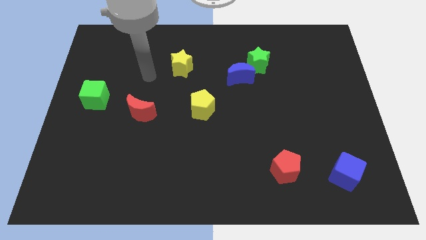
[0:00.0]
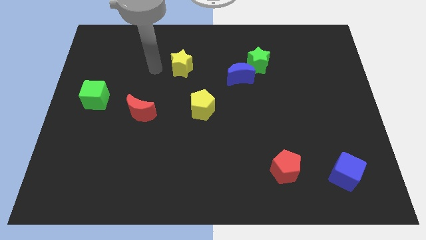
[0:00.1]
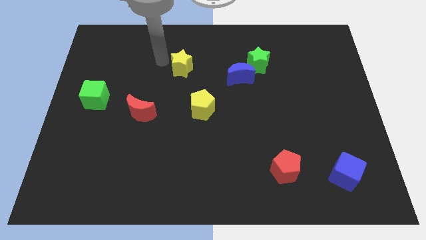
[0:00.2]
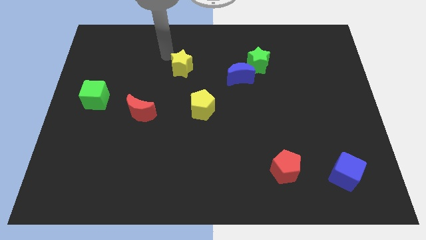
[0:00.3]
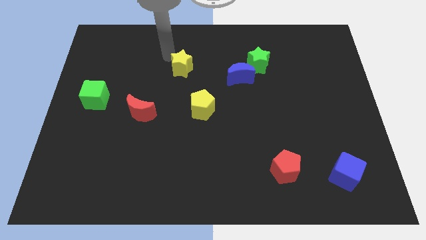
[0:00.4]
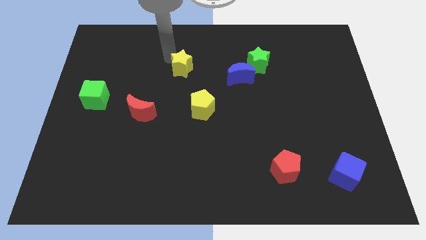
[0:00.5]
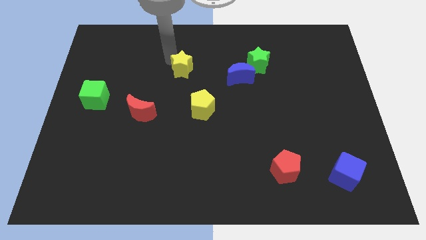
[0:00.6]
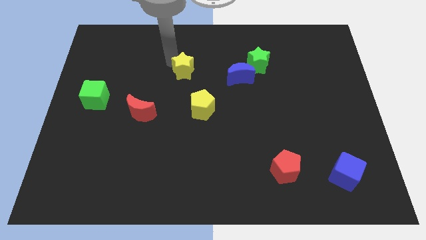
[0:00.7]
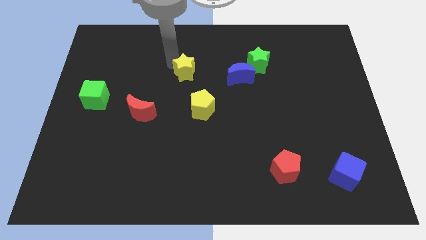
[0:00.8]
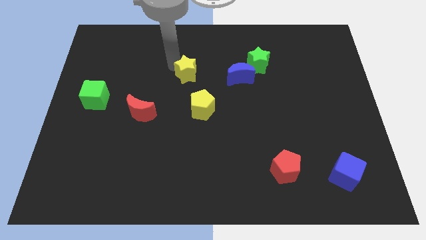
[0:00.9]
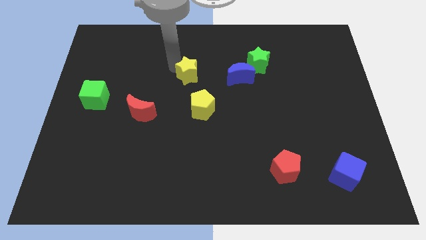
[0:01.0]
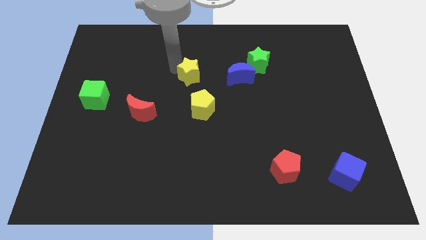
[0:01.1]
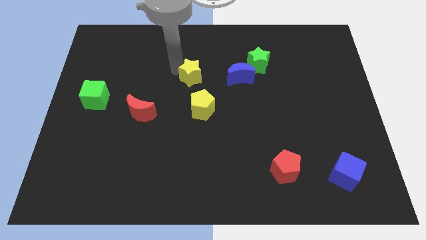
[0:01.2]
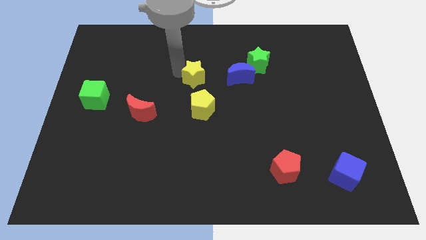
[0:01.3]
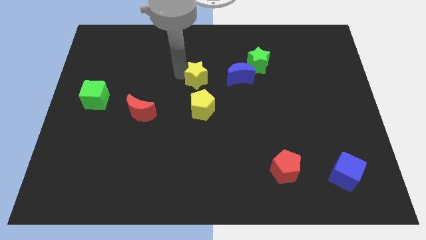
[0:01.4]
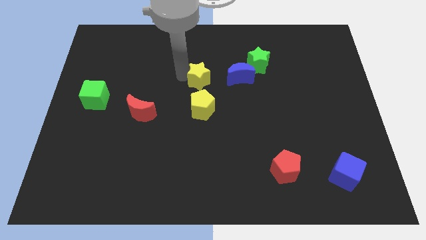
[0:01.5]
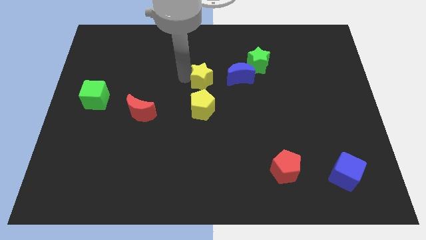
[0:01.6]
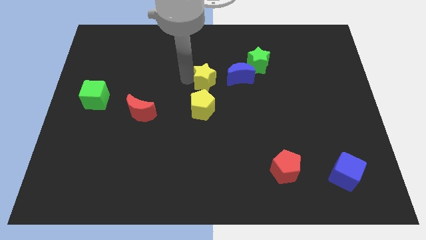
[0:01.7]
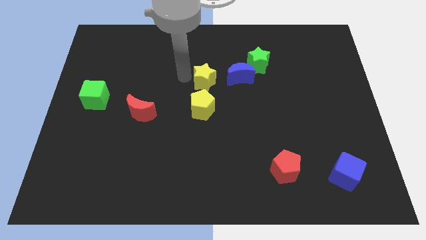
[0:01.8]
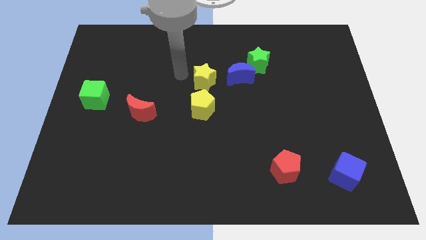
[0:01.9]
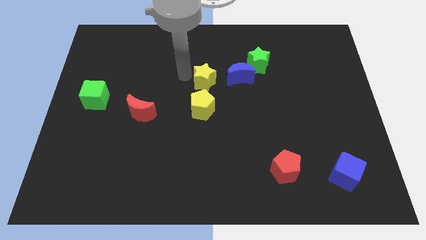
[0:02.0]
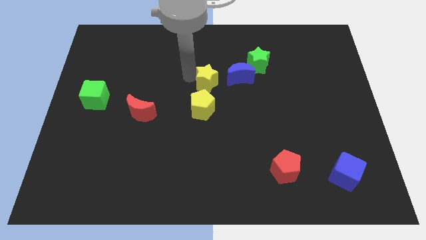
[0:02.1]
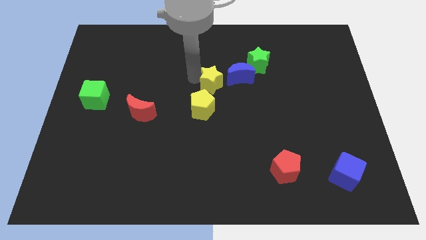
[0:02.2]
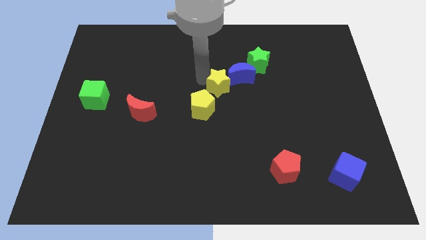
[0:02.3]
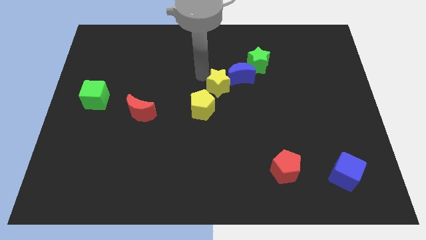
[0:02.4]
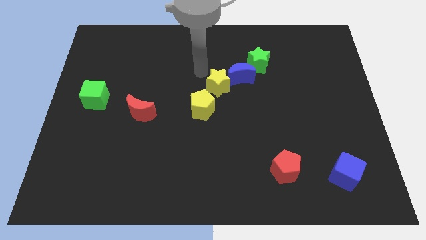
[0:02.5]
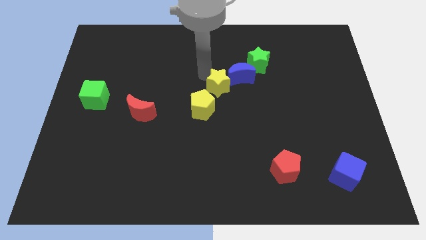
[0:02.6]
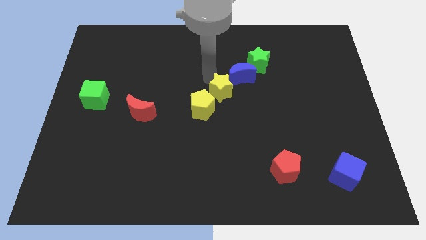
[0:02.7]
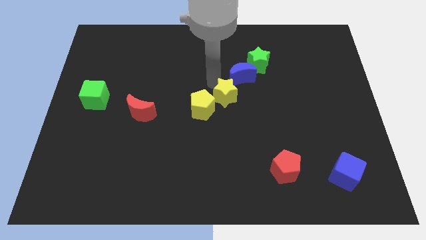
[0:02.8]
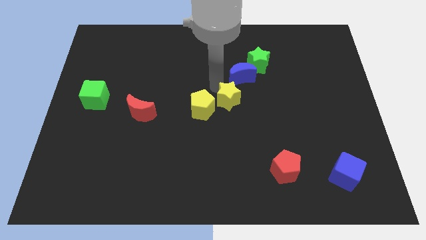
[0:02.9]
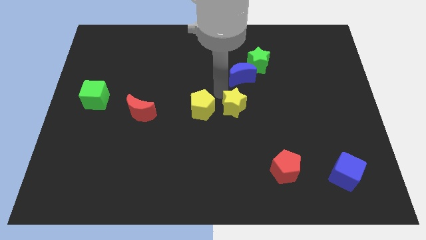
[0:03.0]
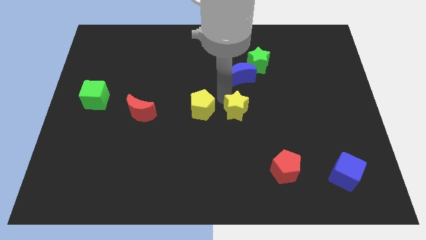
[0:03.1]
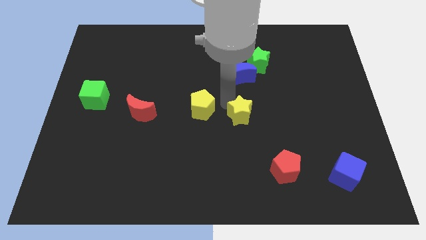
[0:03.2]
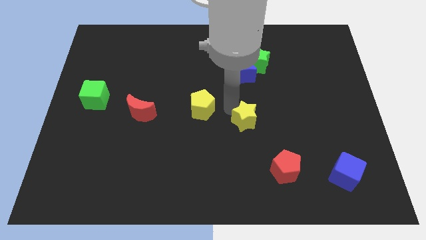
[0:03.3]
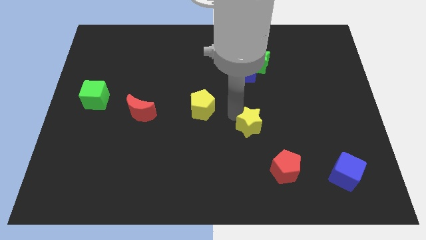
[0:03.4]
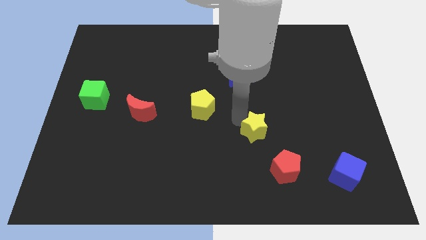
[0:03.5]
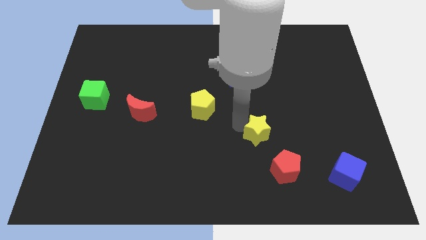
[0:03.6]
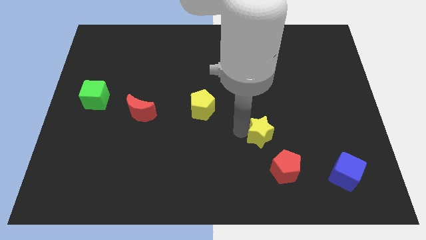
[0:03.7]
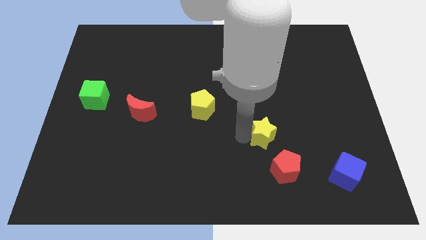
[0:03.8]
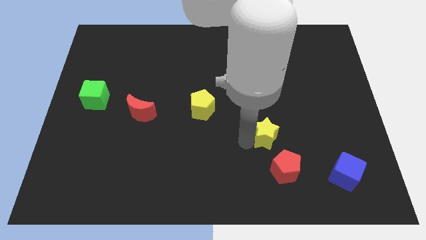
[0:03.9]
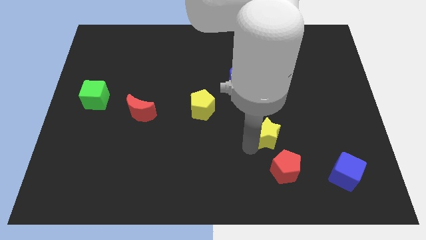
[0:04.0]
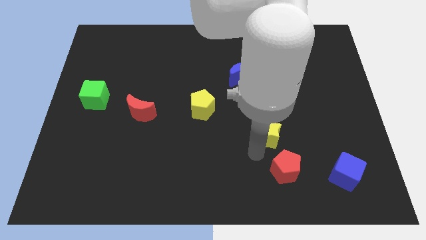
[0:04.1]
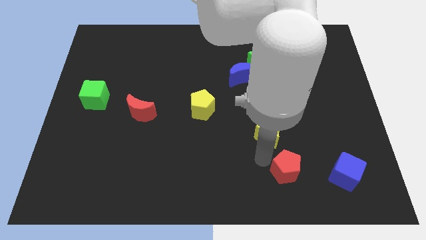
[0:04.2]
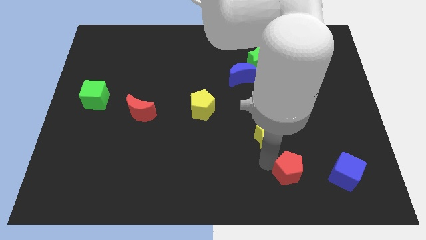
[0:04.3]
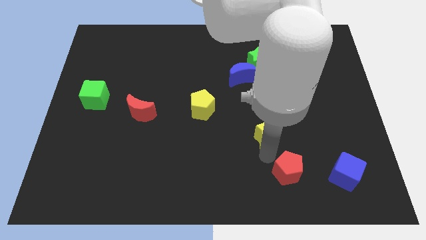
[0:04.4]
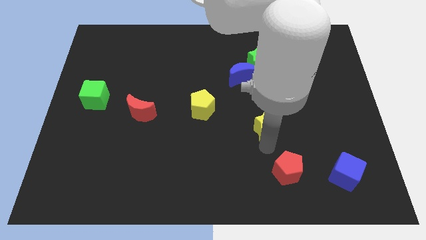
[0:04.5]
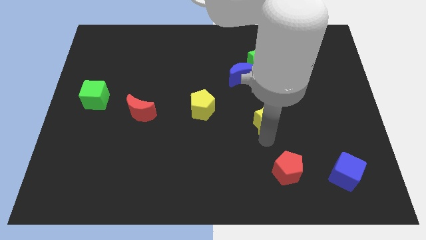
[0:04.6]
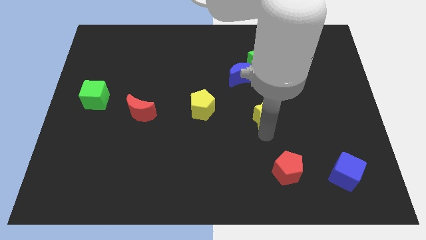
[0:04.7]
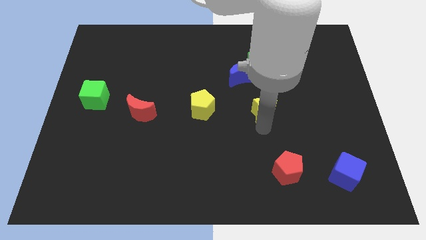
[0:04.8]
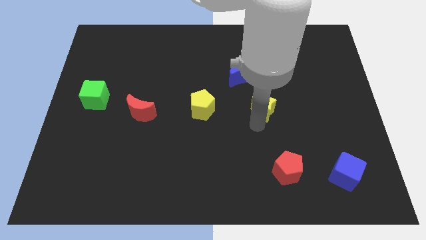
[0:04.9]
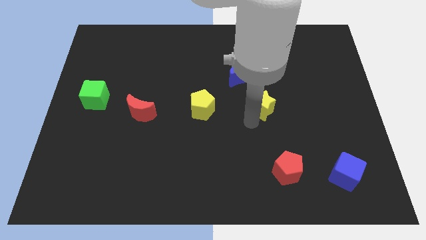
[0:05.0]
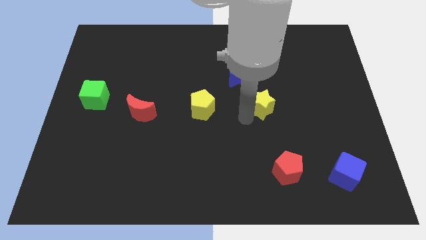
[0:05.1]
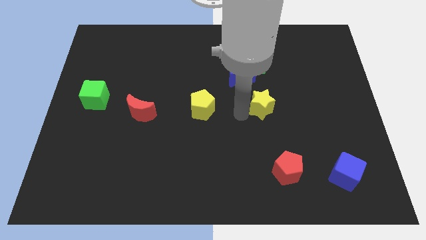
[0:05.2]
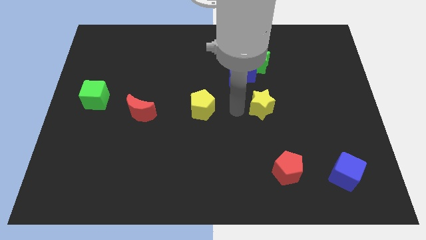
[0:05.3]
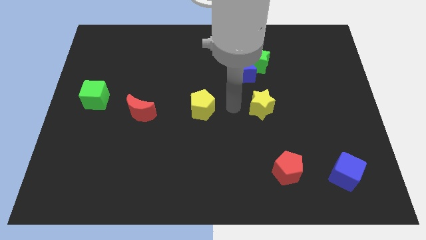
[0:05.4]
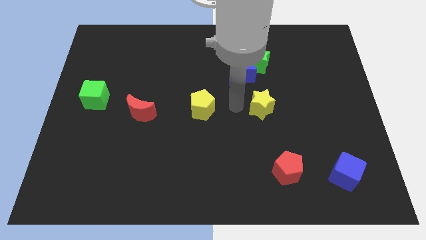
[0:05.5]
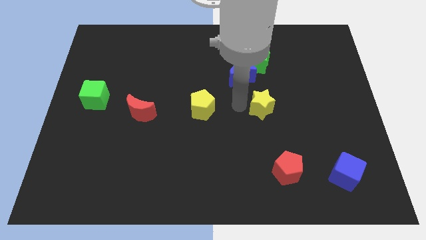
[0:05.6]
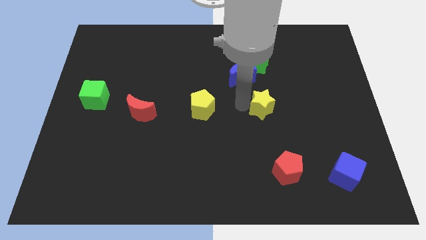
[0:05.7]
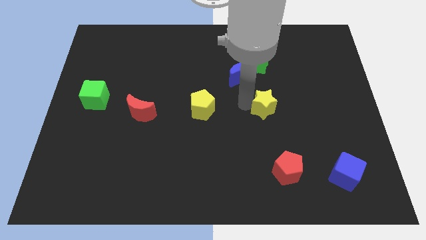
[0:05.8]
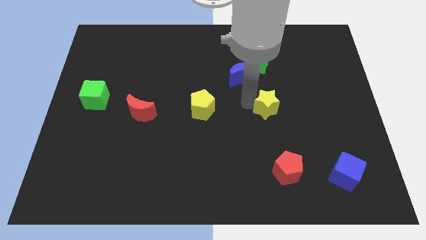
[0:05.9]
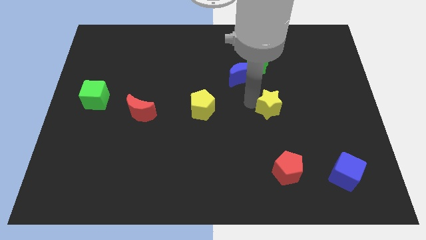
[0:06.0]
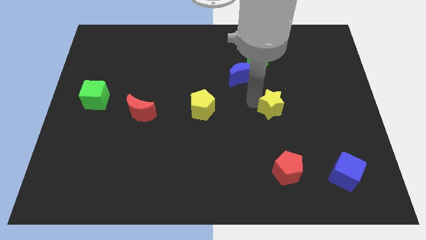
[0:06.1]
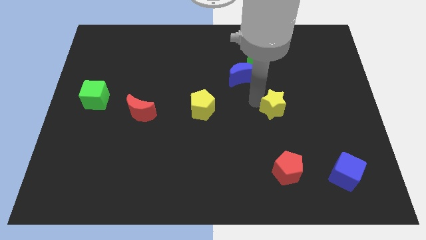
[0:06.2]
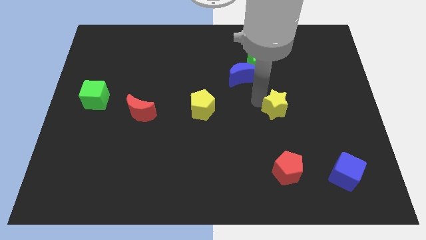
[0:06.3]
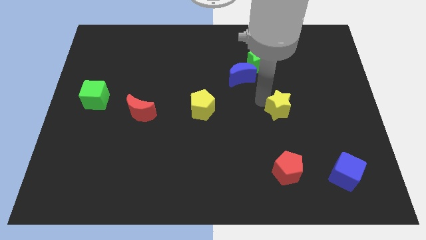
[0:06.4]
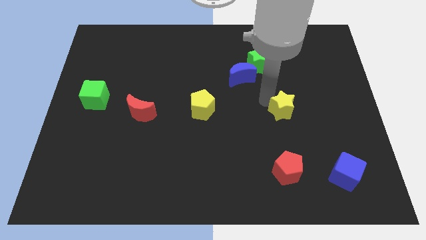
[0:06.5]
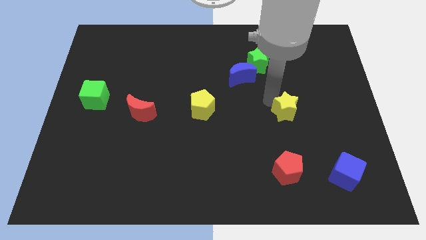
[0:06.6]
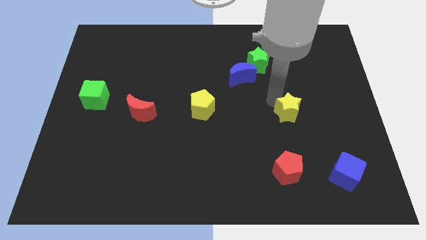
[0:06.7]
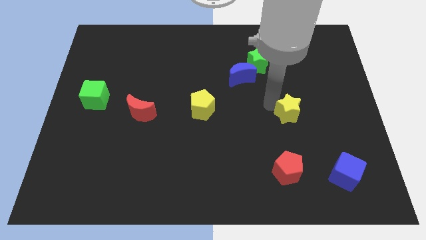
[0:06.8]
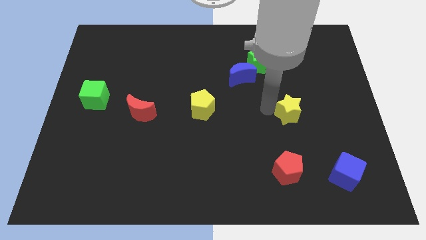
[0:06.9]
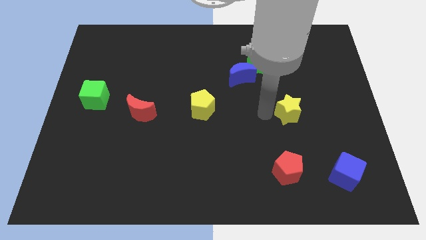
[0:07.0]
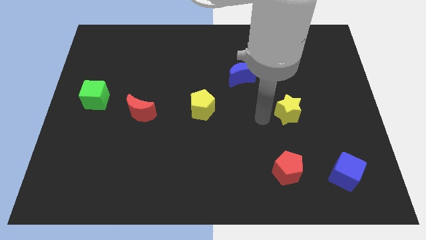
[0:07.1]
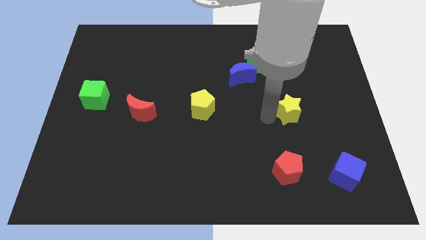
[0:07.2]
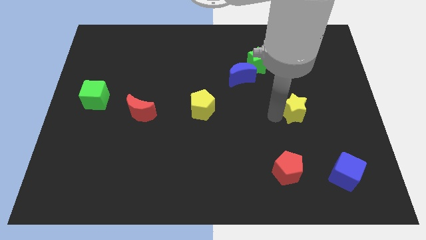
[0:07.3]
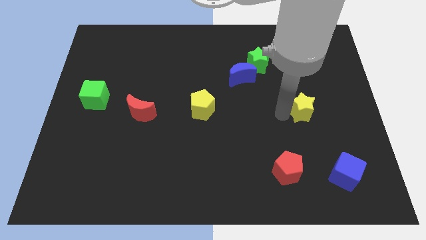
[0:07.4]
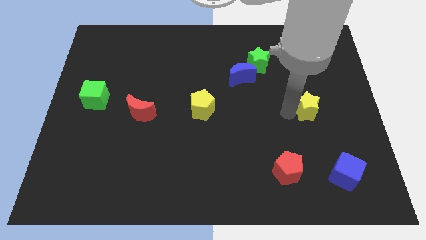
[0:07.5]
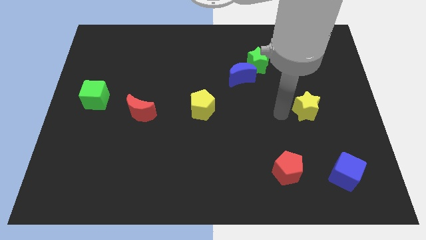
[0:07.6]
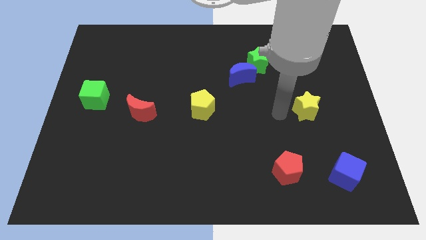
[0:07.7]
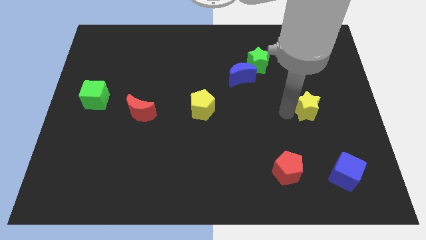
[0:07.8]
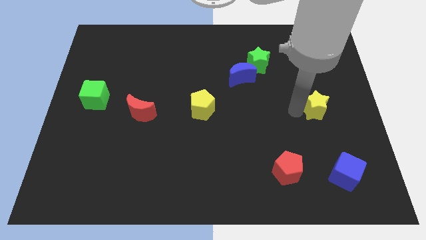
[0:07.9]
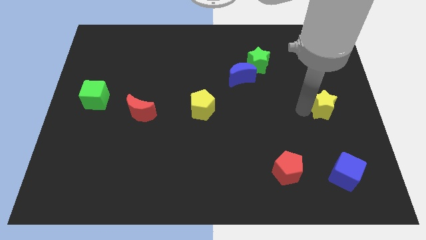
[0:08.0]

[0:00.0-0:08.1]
slide the yellow star to the right side
